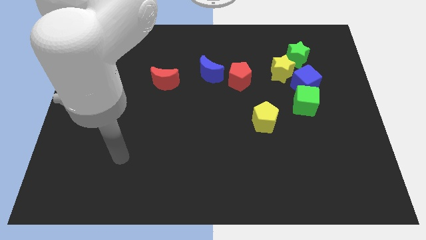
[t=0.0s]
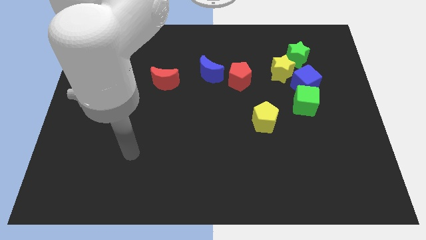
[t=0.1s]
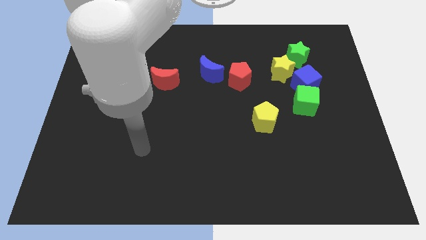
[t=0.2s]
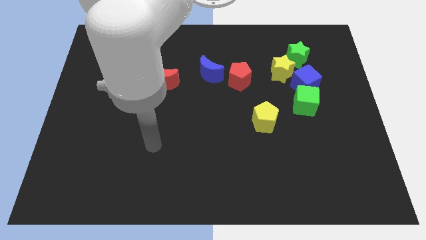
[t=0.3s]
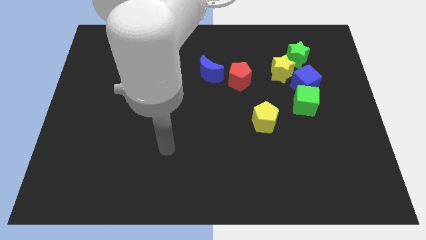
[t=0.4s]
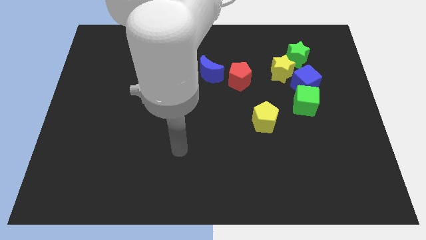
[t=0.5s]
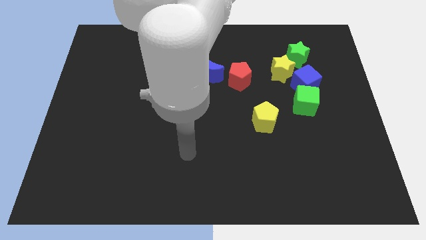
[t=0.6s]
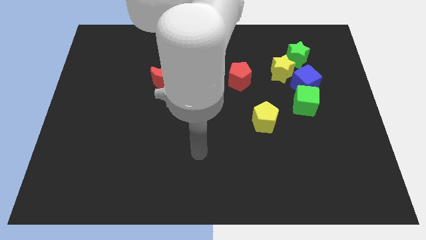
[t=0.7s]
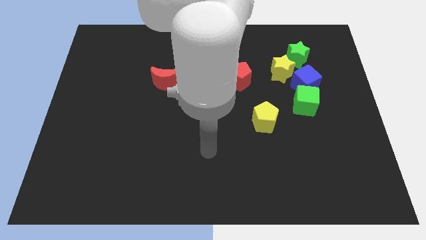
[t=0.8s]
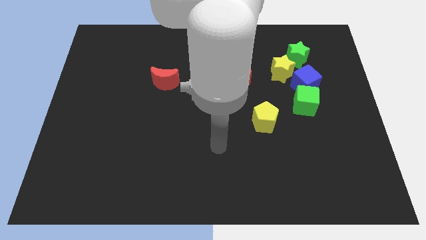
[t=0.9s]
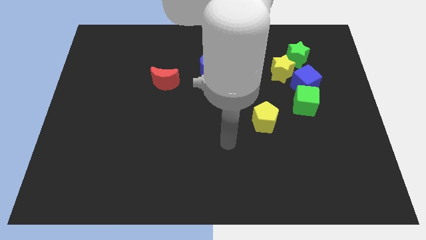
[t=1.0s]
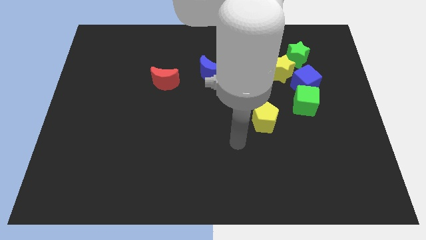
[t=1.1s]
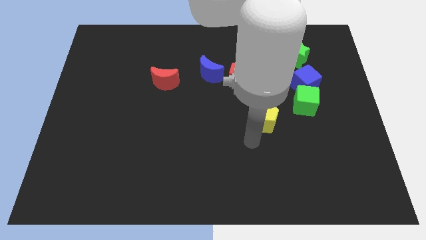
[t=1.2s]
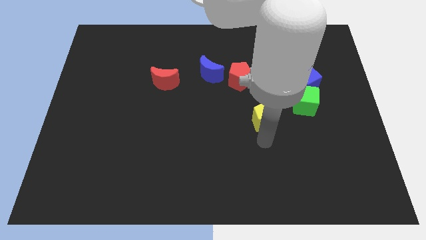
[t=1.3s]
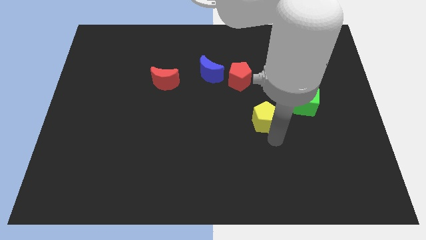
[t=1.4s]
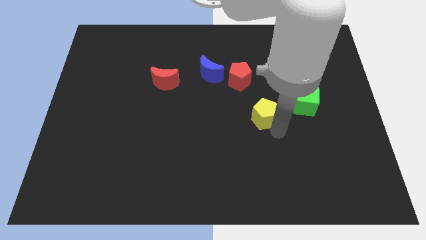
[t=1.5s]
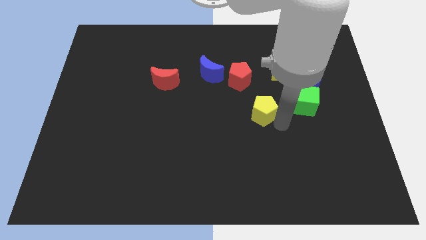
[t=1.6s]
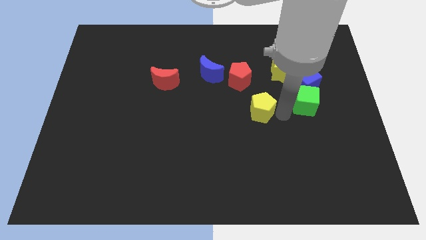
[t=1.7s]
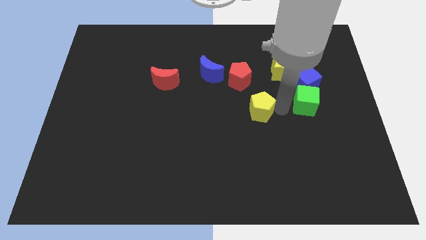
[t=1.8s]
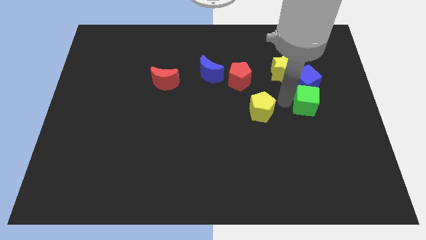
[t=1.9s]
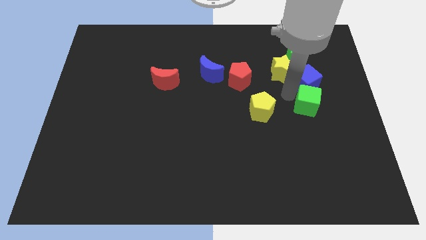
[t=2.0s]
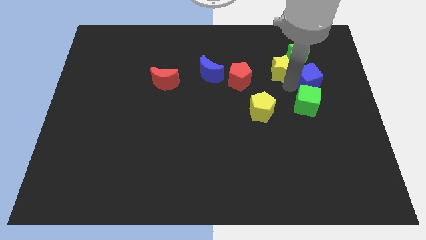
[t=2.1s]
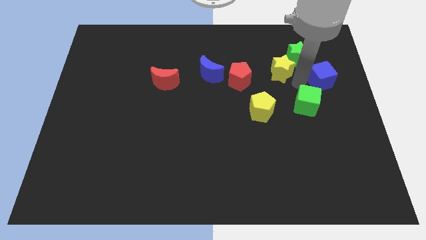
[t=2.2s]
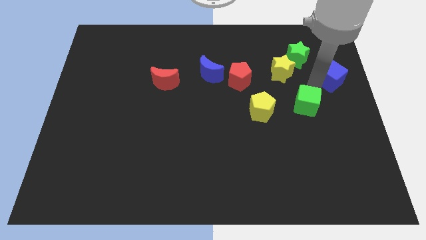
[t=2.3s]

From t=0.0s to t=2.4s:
pull the green cube apart from the blue cube

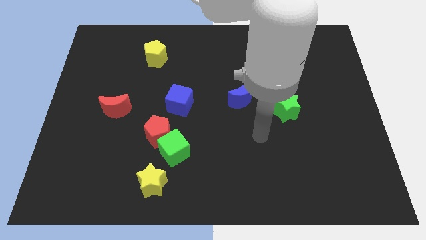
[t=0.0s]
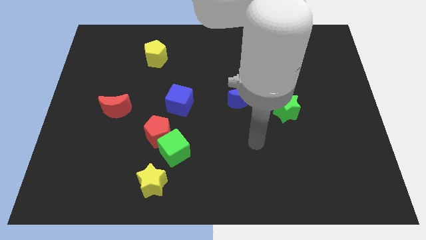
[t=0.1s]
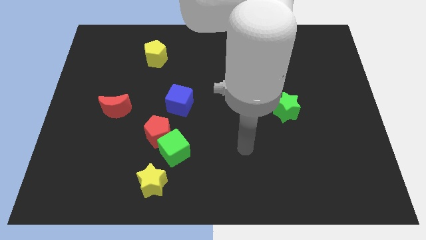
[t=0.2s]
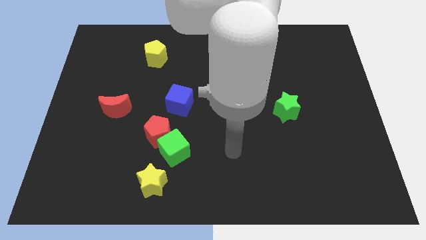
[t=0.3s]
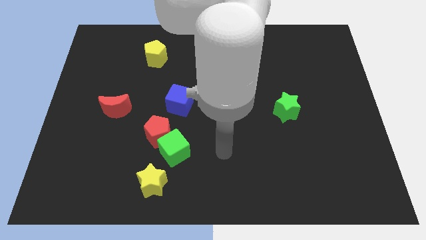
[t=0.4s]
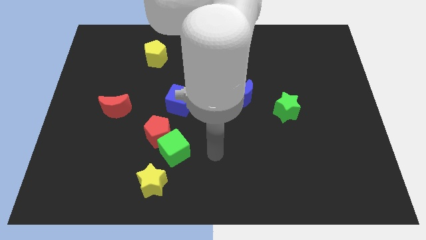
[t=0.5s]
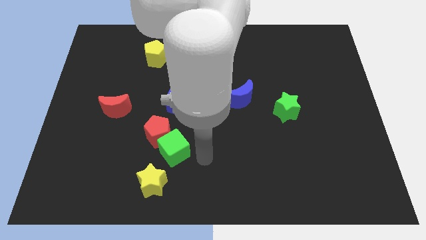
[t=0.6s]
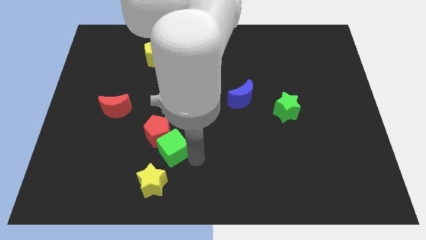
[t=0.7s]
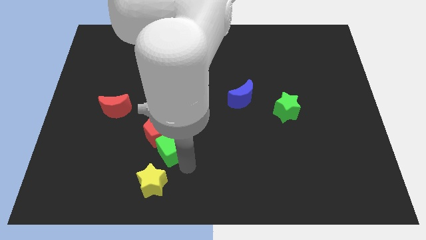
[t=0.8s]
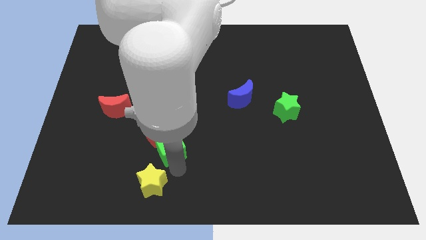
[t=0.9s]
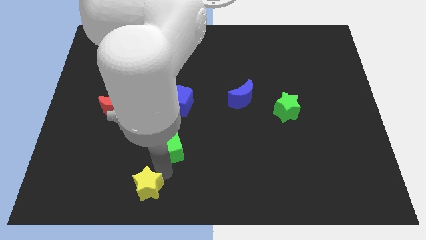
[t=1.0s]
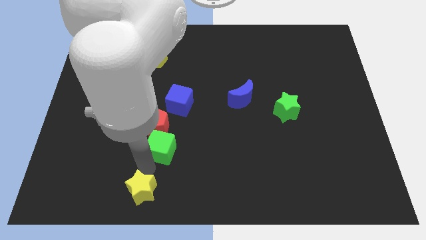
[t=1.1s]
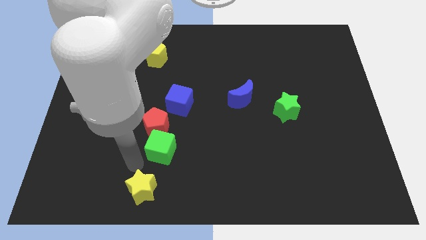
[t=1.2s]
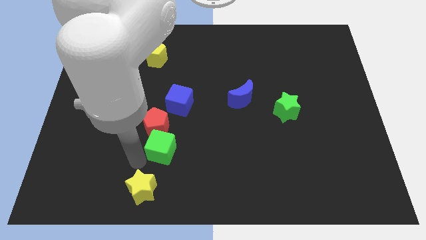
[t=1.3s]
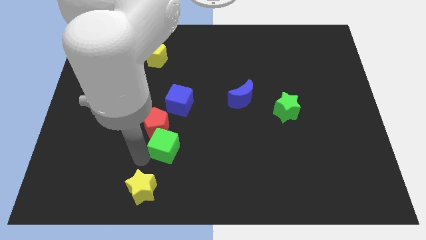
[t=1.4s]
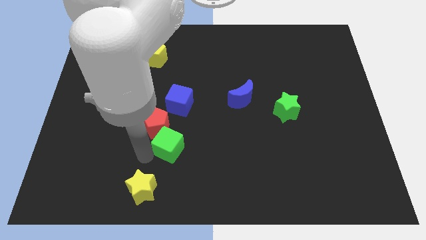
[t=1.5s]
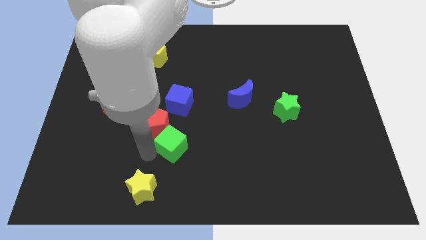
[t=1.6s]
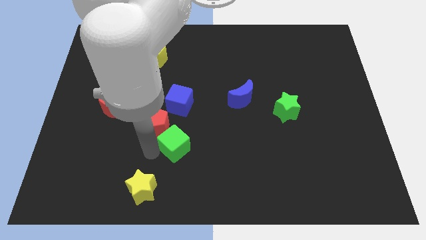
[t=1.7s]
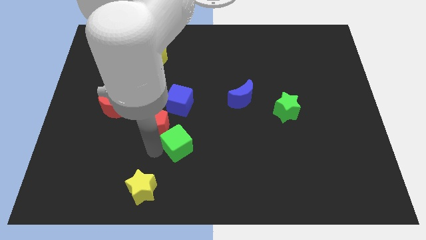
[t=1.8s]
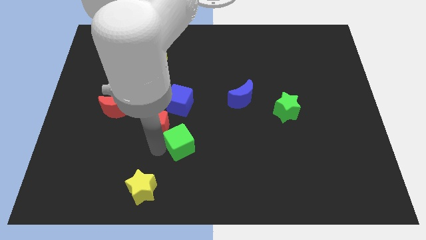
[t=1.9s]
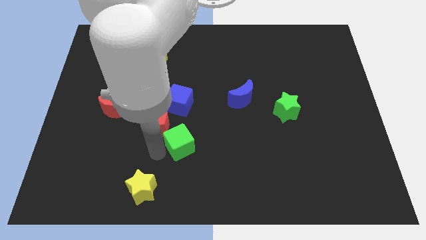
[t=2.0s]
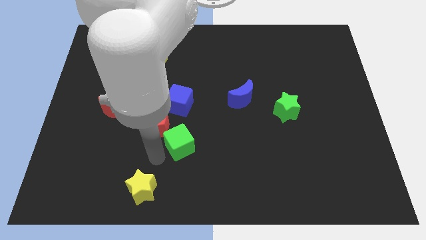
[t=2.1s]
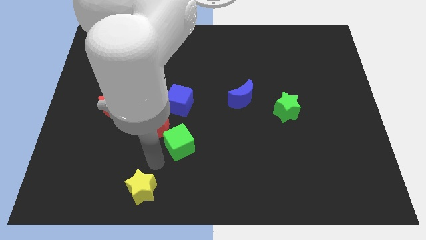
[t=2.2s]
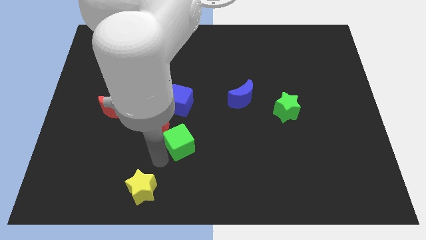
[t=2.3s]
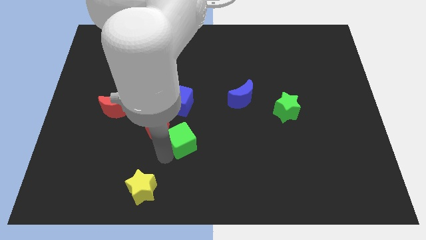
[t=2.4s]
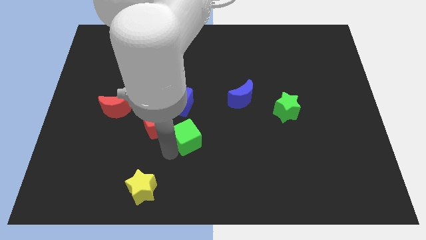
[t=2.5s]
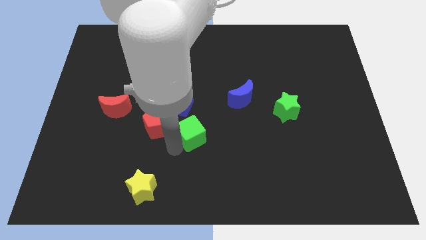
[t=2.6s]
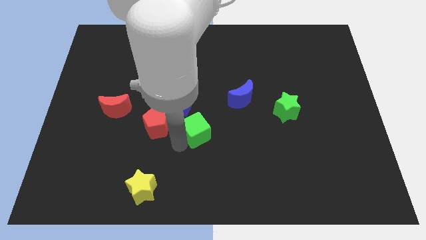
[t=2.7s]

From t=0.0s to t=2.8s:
separate the green cube from the red pentagon and yellow star

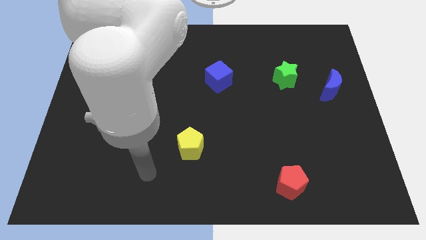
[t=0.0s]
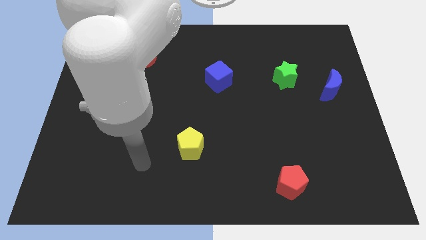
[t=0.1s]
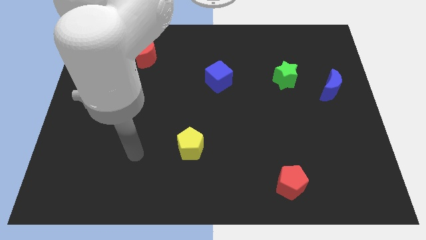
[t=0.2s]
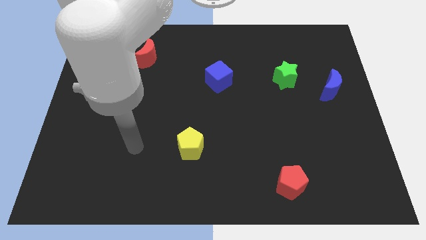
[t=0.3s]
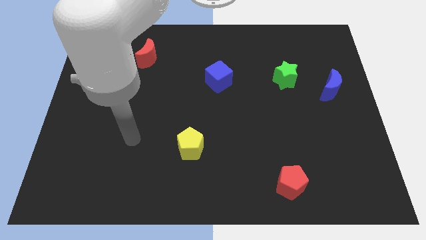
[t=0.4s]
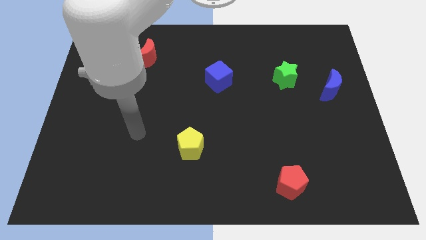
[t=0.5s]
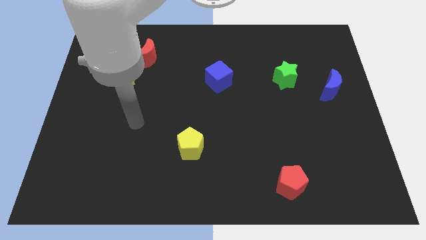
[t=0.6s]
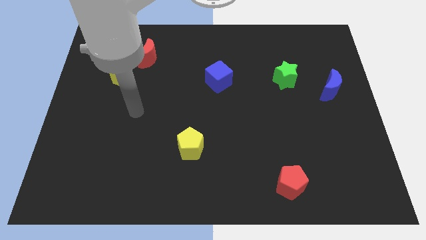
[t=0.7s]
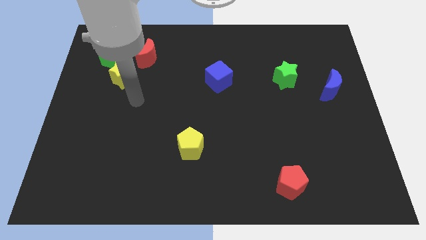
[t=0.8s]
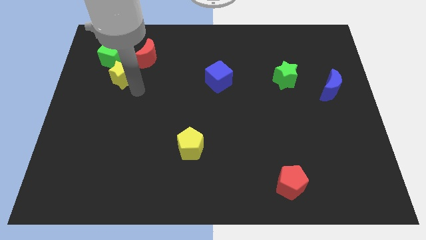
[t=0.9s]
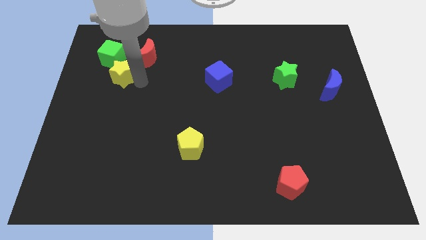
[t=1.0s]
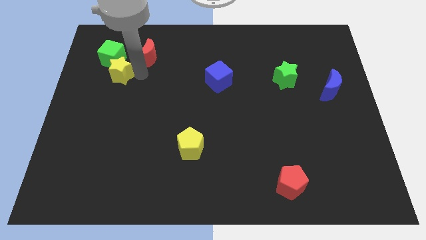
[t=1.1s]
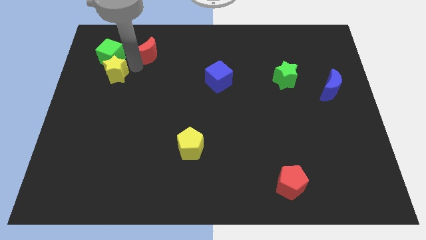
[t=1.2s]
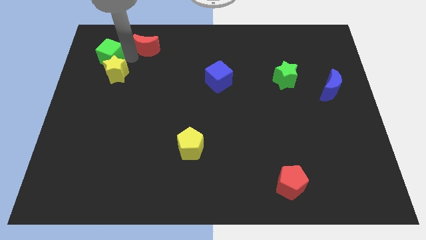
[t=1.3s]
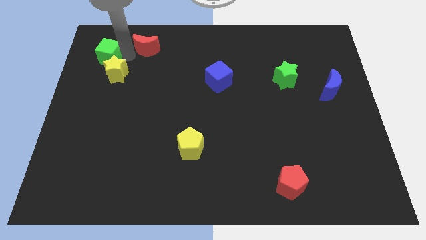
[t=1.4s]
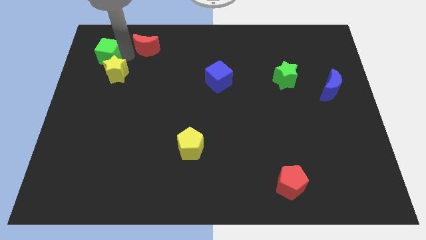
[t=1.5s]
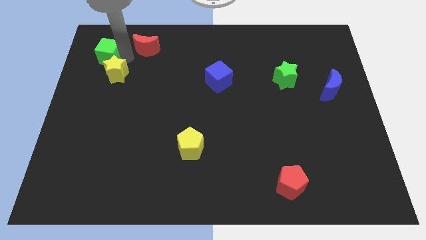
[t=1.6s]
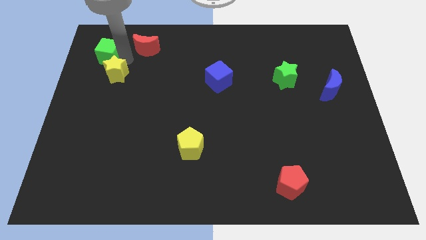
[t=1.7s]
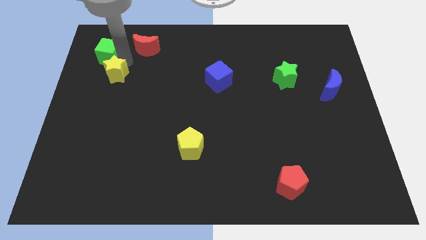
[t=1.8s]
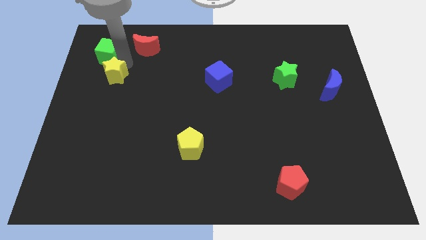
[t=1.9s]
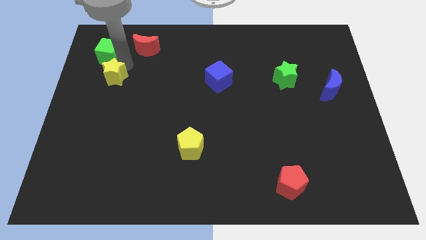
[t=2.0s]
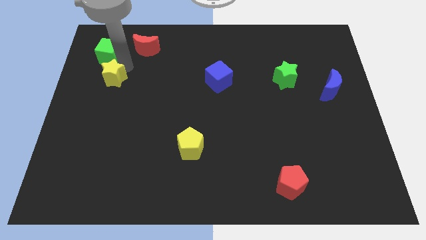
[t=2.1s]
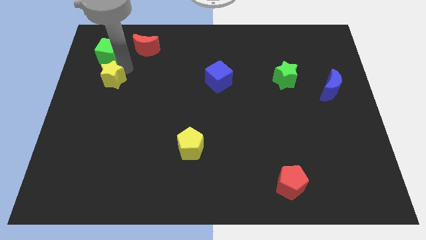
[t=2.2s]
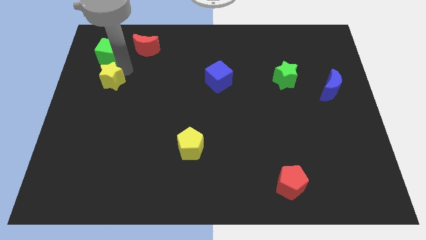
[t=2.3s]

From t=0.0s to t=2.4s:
separate the yellow star from the green cube and red moon

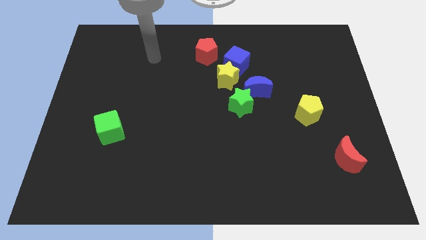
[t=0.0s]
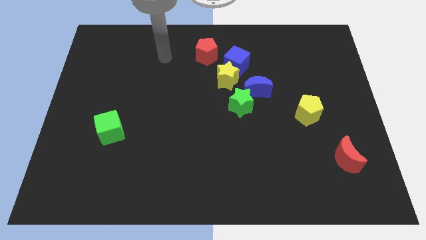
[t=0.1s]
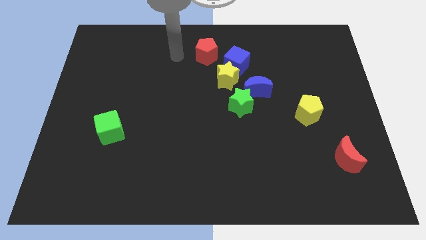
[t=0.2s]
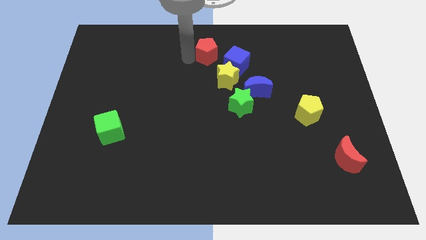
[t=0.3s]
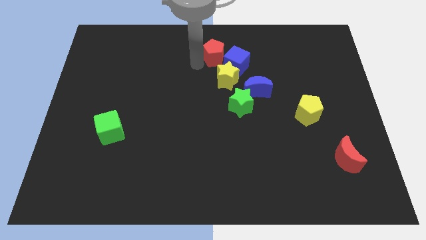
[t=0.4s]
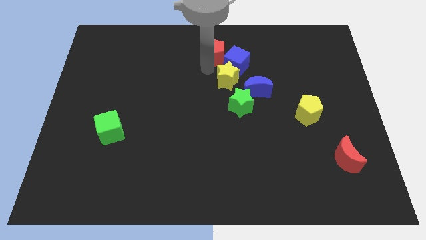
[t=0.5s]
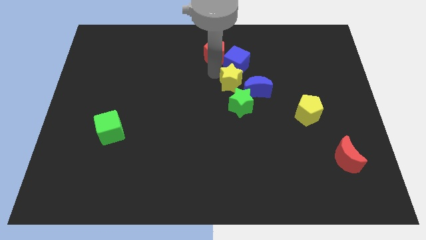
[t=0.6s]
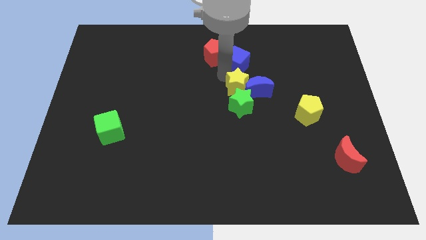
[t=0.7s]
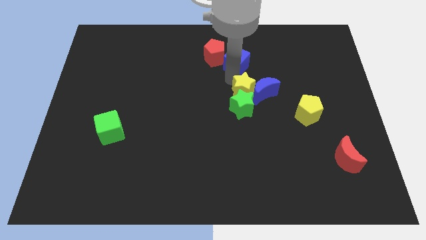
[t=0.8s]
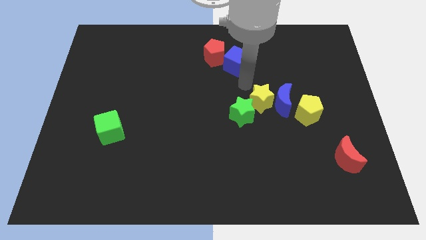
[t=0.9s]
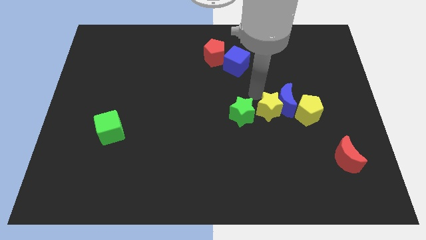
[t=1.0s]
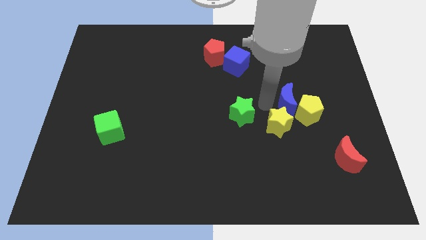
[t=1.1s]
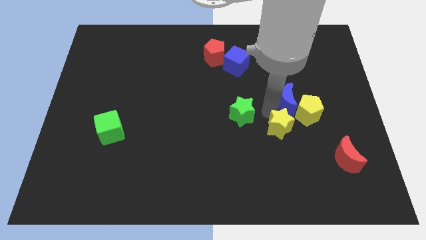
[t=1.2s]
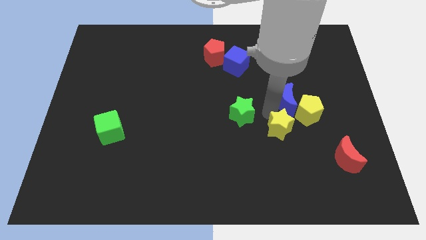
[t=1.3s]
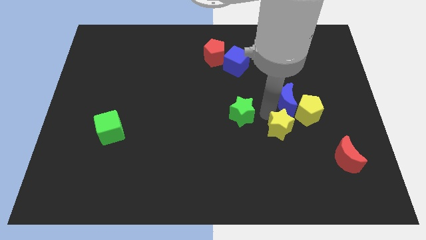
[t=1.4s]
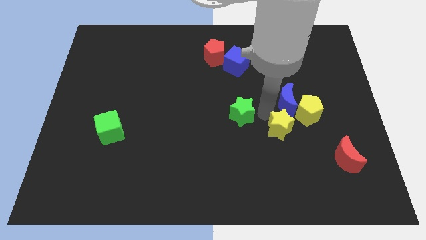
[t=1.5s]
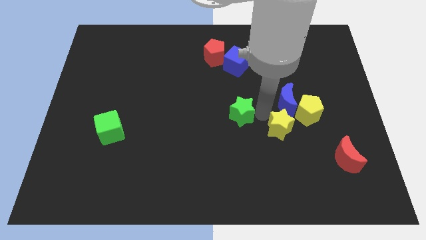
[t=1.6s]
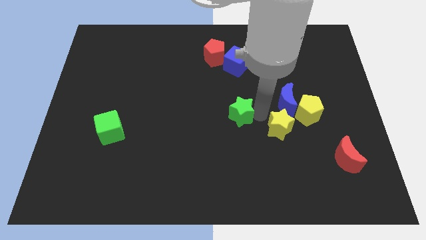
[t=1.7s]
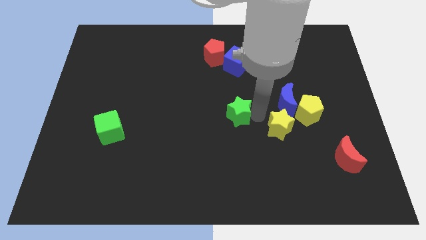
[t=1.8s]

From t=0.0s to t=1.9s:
separate the green star from the blue moon and yellow star
